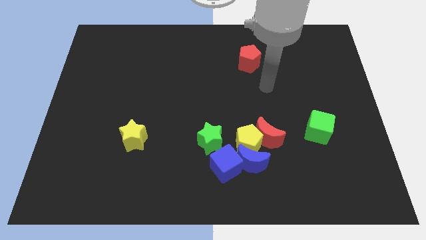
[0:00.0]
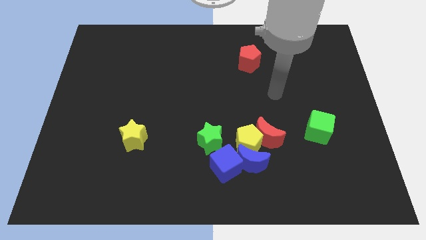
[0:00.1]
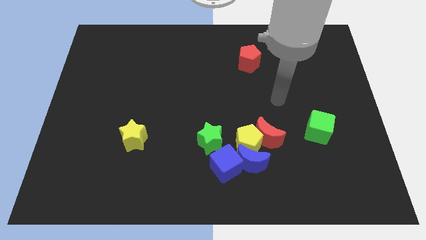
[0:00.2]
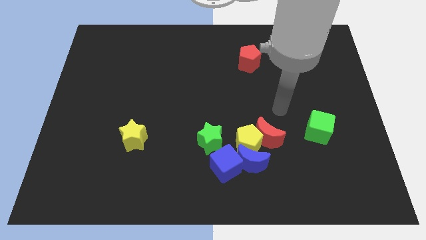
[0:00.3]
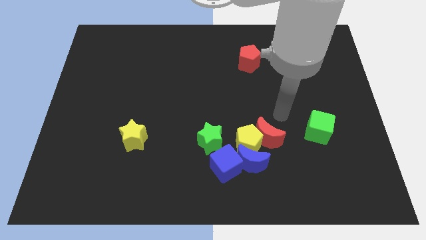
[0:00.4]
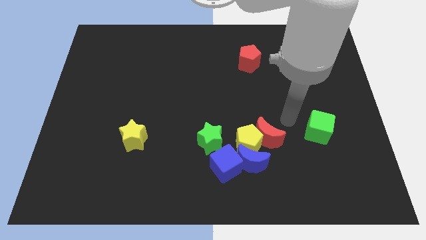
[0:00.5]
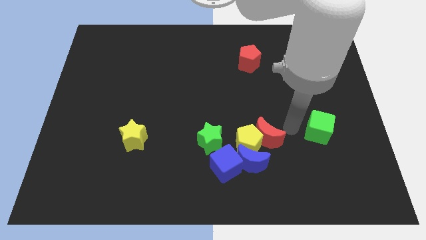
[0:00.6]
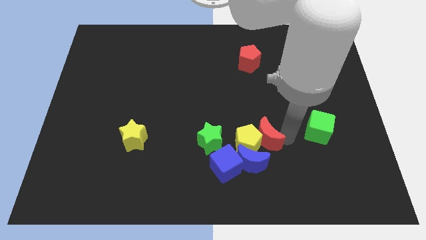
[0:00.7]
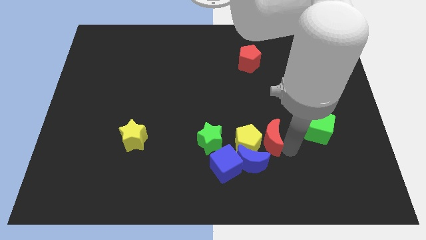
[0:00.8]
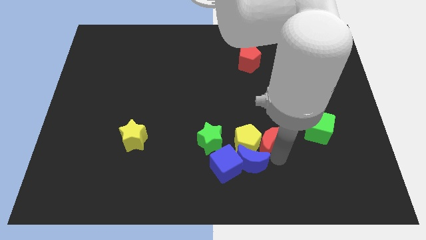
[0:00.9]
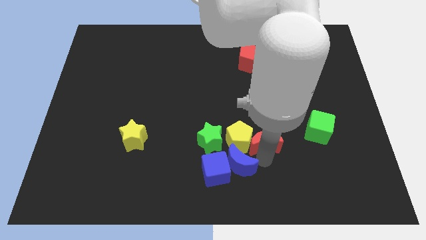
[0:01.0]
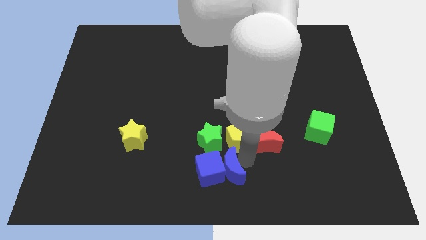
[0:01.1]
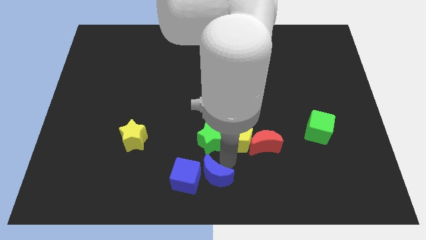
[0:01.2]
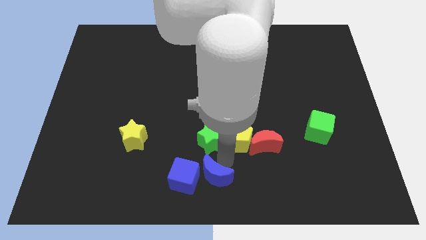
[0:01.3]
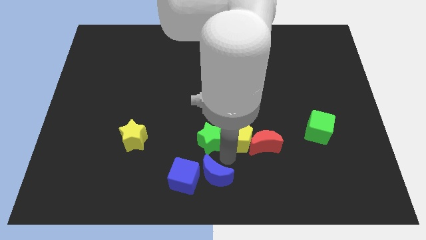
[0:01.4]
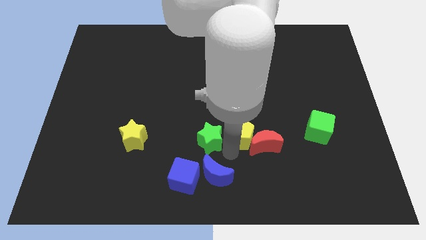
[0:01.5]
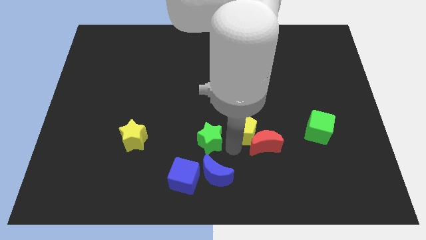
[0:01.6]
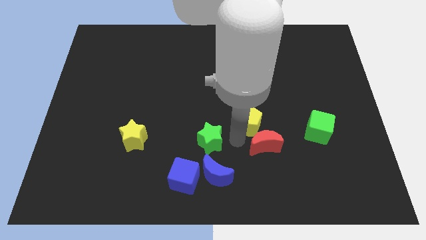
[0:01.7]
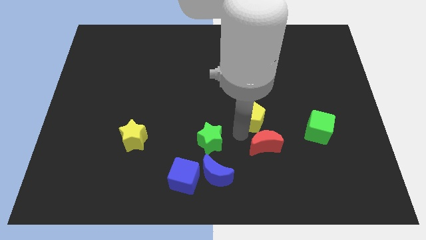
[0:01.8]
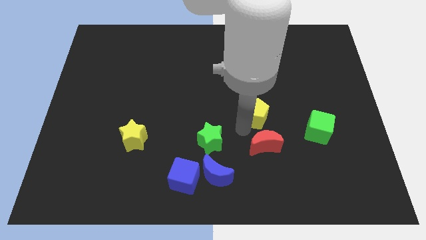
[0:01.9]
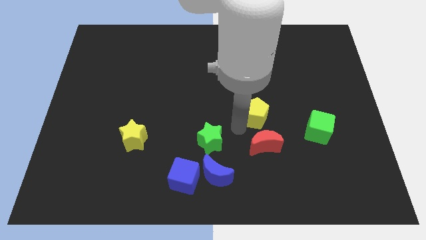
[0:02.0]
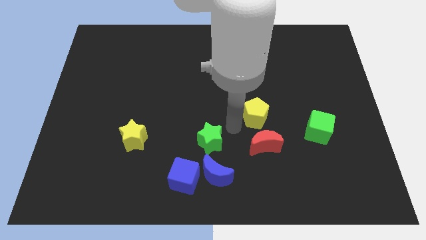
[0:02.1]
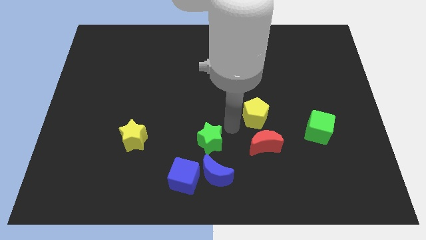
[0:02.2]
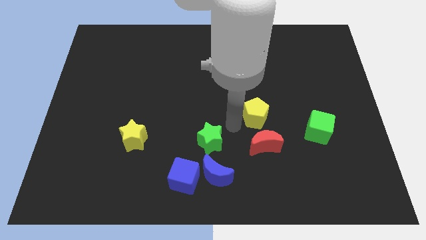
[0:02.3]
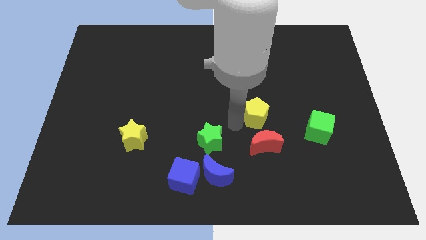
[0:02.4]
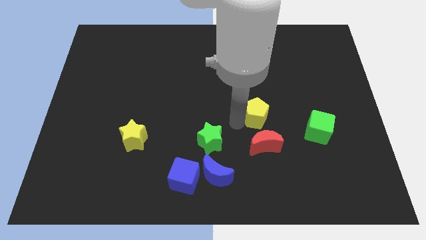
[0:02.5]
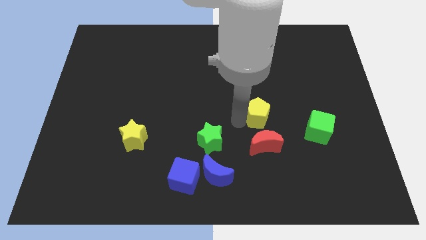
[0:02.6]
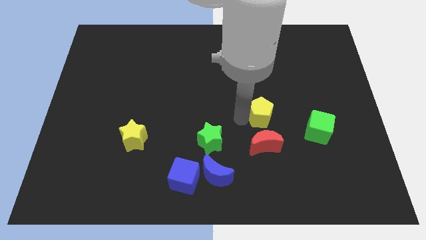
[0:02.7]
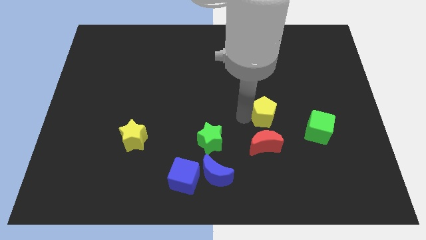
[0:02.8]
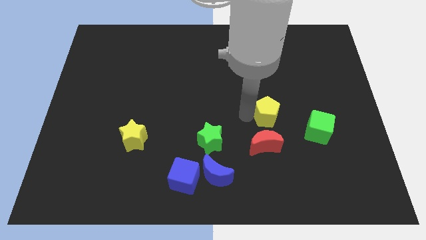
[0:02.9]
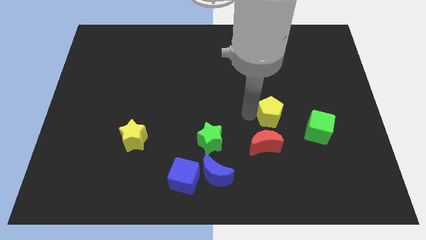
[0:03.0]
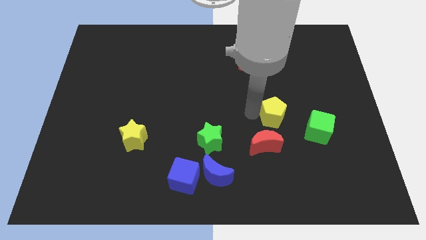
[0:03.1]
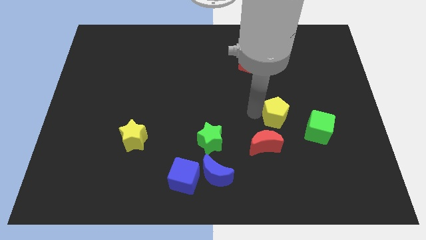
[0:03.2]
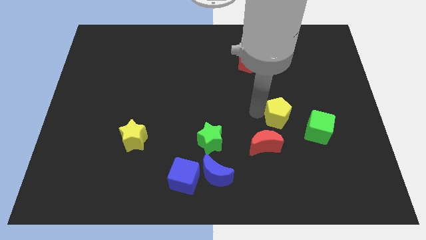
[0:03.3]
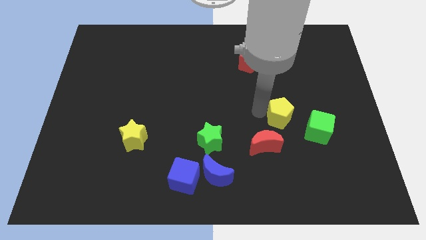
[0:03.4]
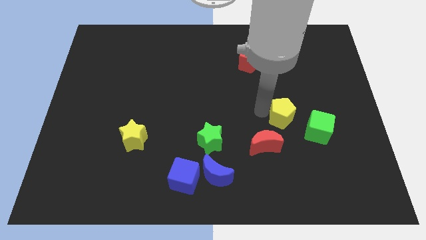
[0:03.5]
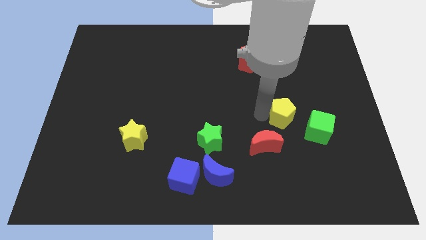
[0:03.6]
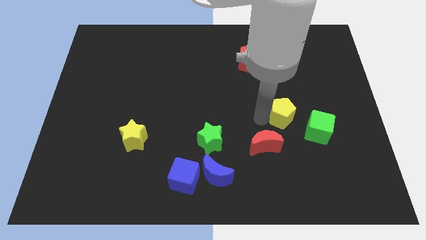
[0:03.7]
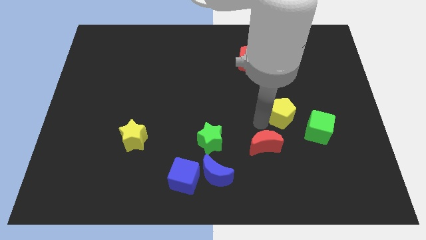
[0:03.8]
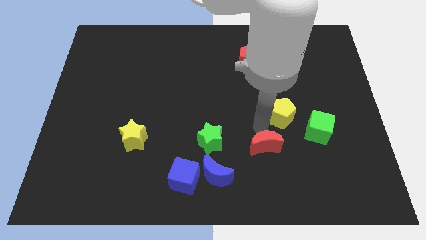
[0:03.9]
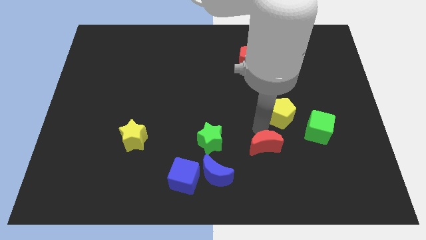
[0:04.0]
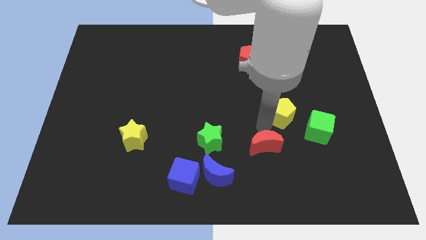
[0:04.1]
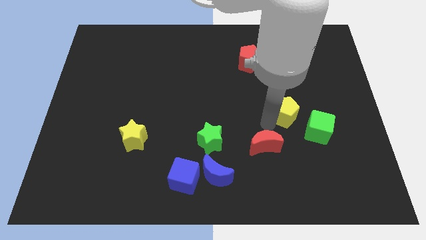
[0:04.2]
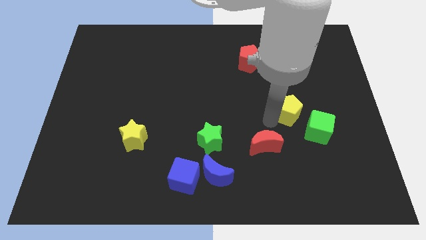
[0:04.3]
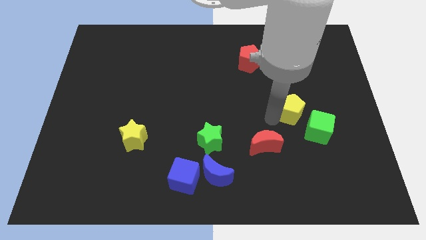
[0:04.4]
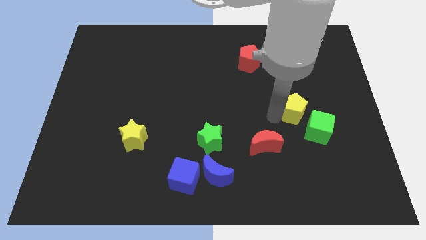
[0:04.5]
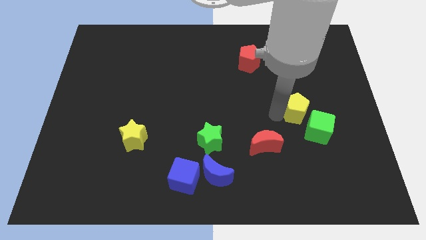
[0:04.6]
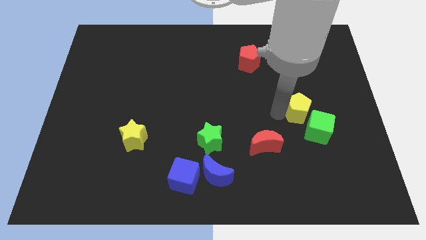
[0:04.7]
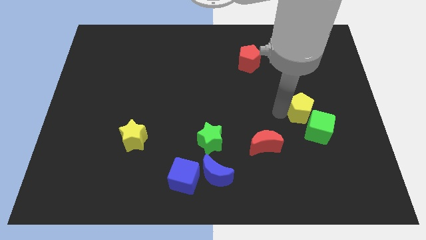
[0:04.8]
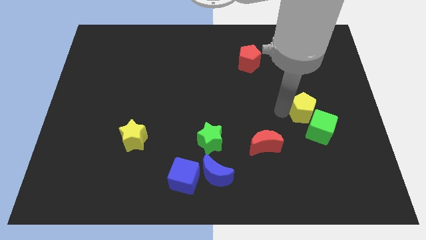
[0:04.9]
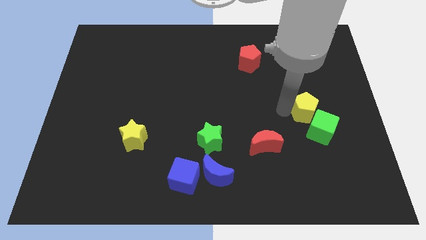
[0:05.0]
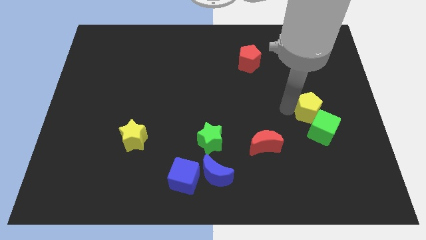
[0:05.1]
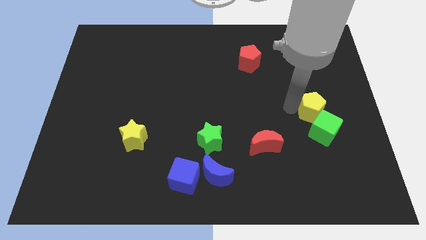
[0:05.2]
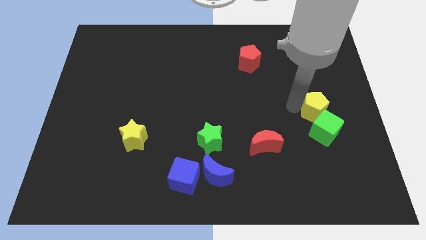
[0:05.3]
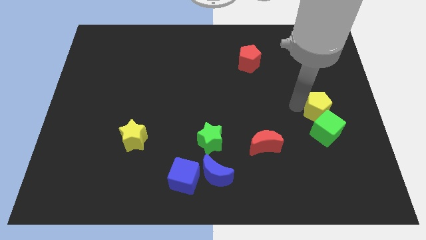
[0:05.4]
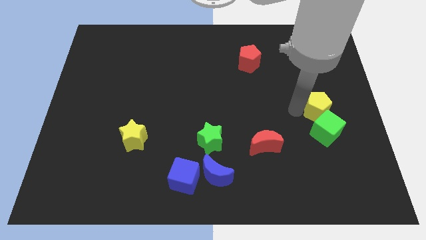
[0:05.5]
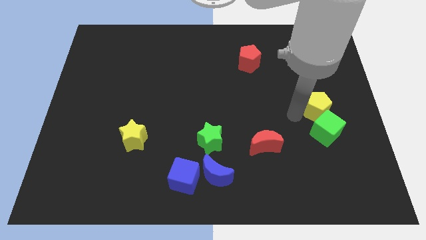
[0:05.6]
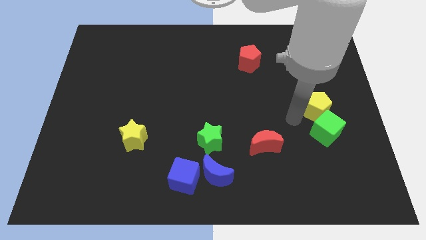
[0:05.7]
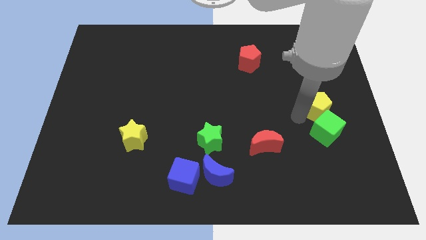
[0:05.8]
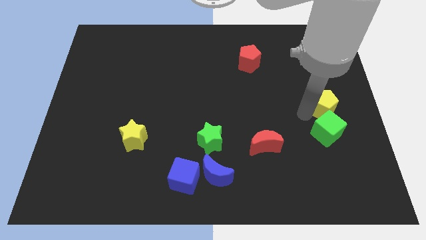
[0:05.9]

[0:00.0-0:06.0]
put the yellow pentagon to the center right

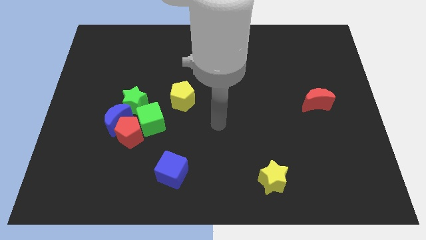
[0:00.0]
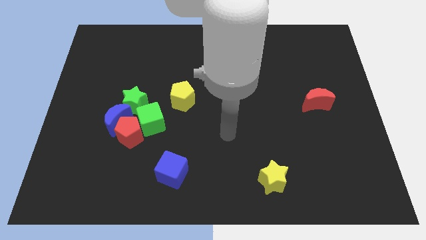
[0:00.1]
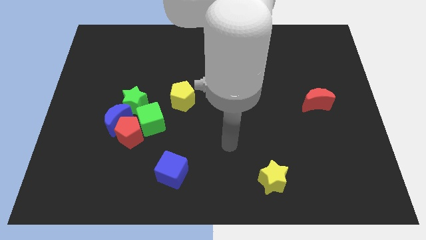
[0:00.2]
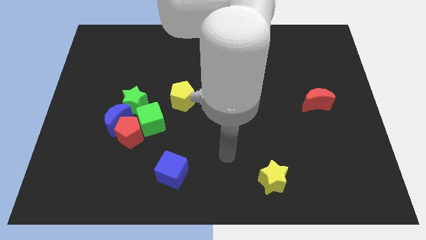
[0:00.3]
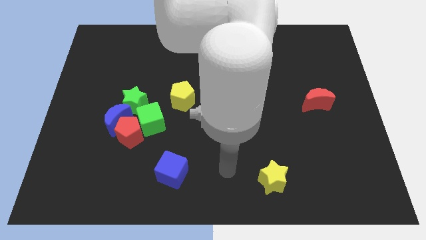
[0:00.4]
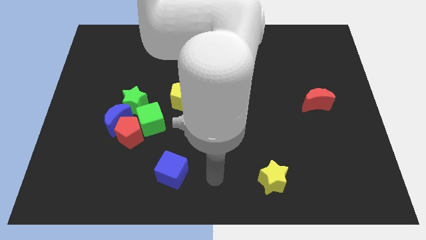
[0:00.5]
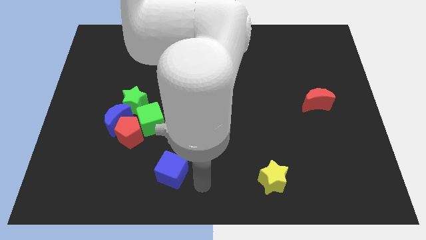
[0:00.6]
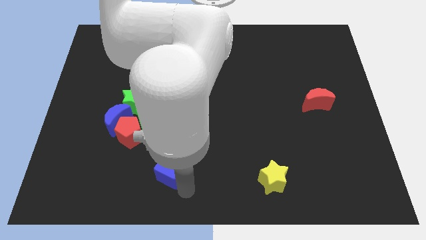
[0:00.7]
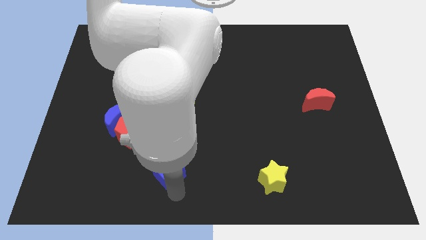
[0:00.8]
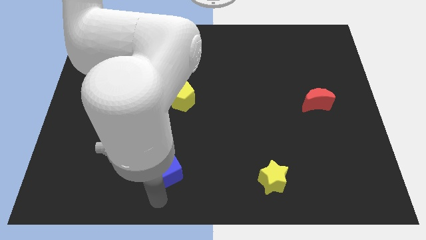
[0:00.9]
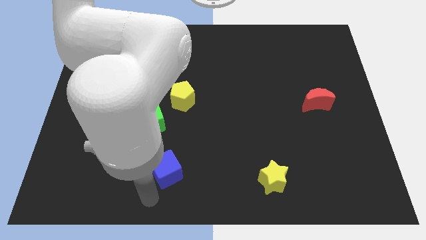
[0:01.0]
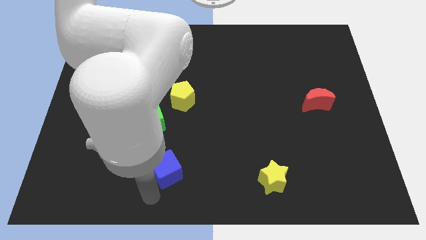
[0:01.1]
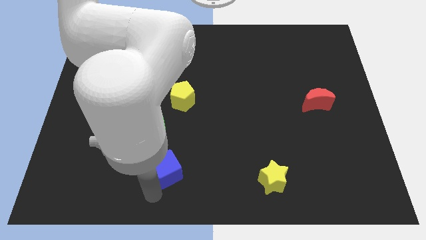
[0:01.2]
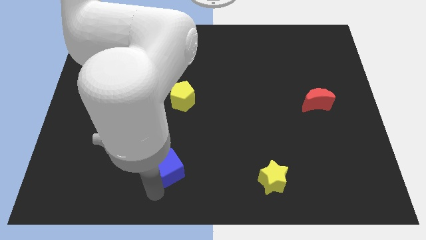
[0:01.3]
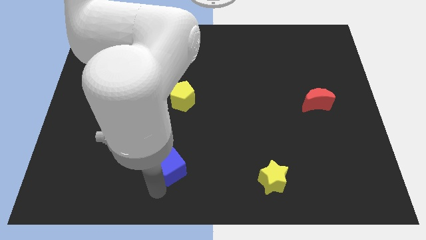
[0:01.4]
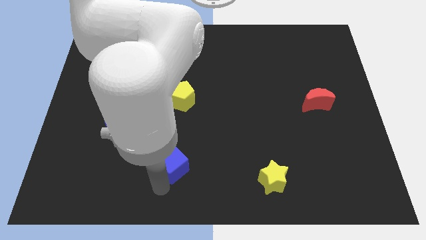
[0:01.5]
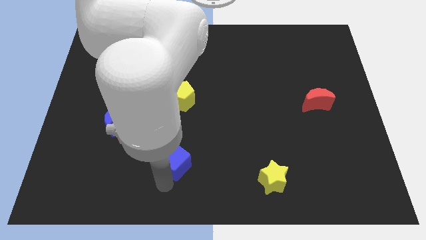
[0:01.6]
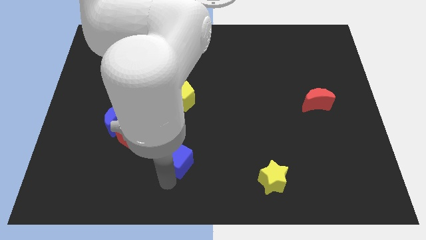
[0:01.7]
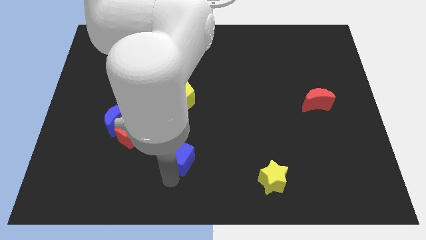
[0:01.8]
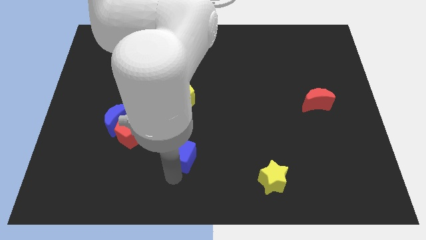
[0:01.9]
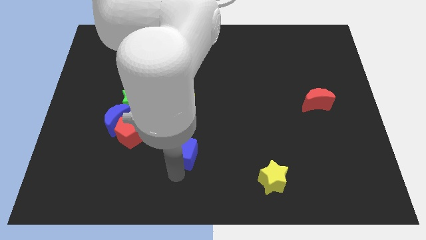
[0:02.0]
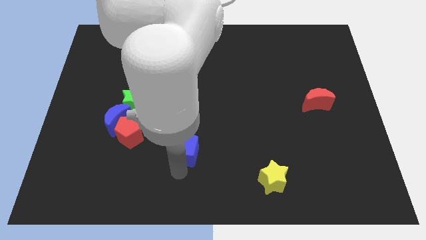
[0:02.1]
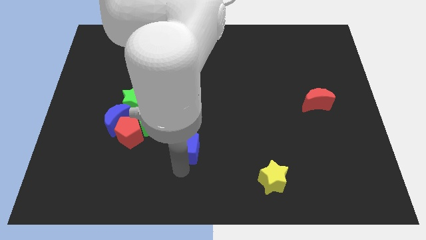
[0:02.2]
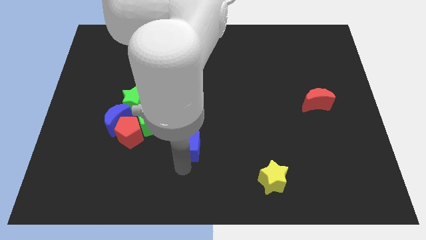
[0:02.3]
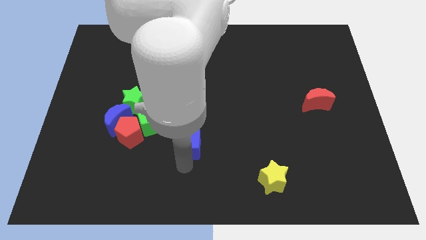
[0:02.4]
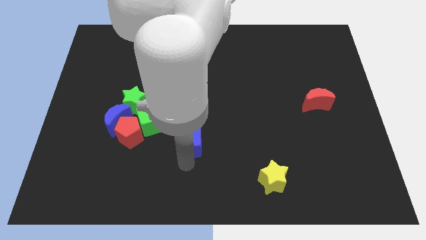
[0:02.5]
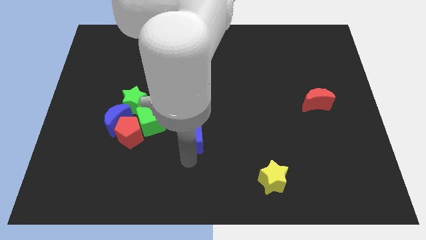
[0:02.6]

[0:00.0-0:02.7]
push the blue cube to the center
